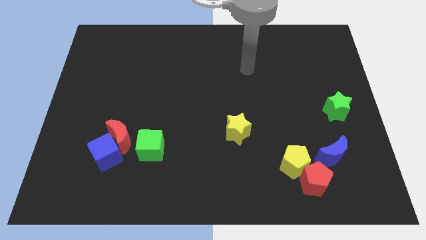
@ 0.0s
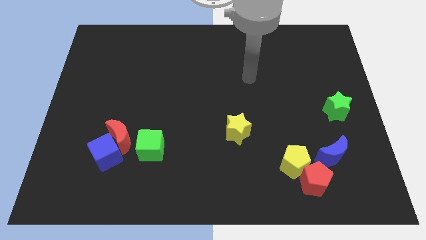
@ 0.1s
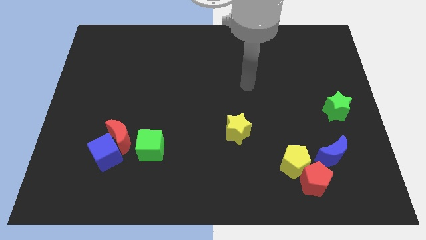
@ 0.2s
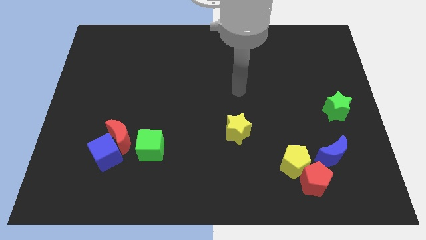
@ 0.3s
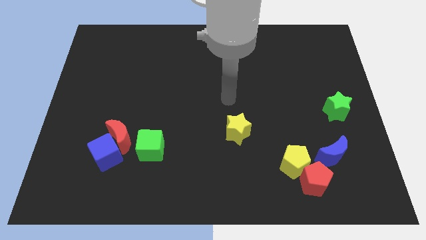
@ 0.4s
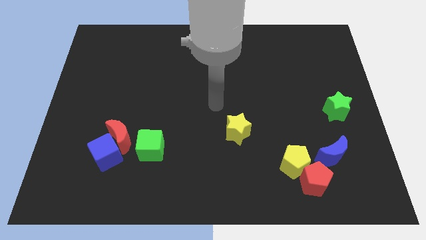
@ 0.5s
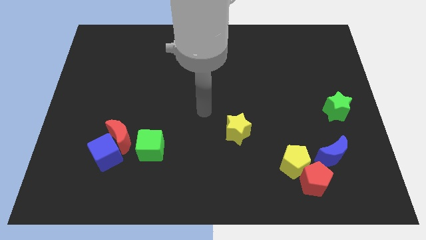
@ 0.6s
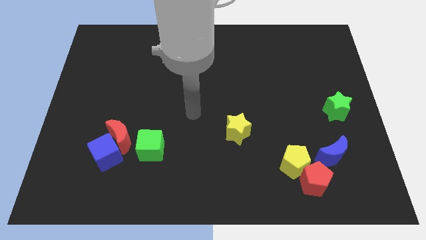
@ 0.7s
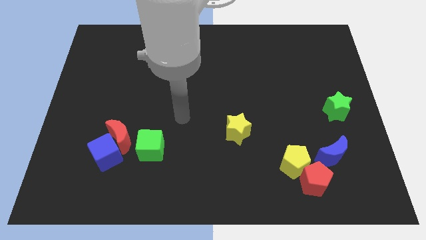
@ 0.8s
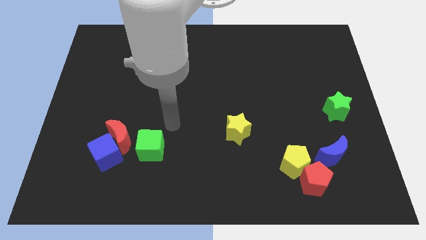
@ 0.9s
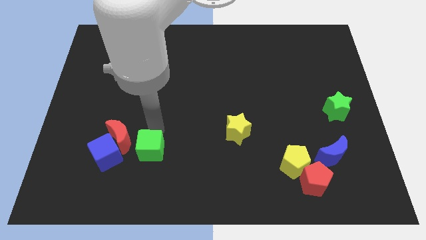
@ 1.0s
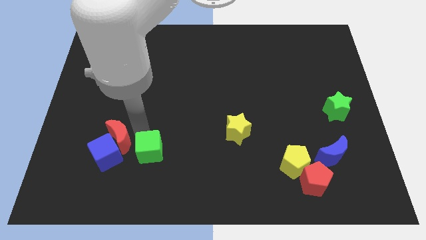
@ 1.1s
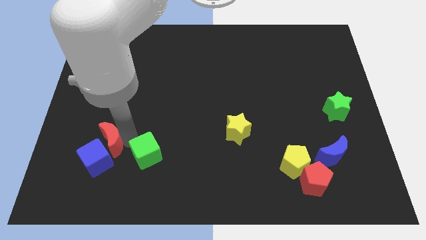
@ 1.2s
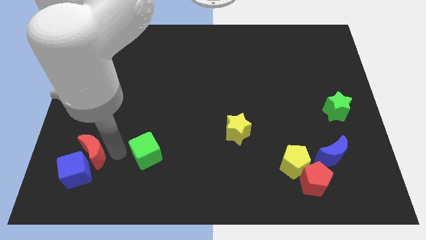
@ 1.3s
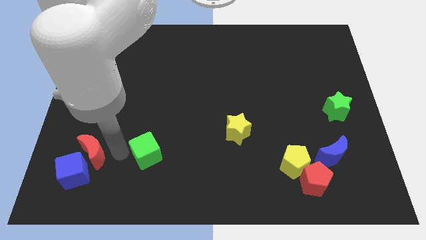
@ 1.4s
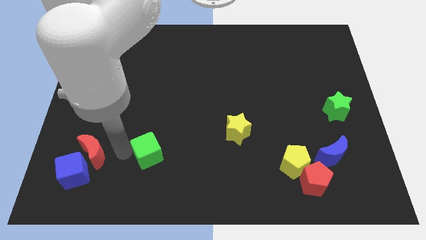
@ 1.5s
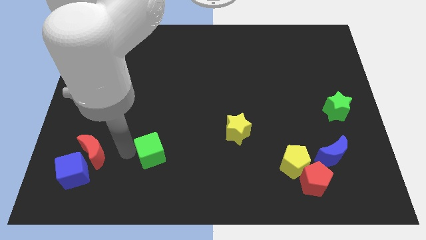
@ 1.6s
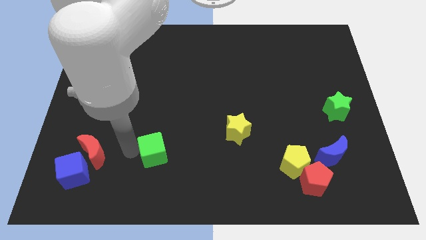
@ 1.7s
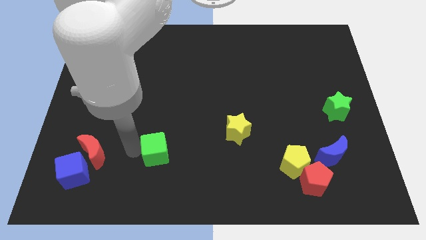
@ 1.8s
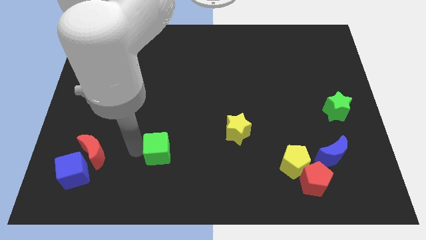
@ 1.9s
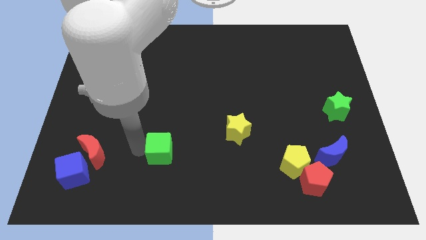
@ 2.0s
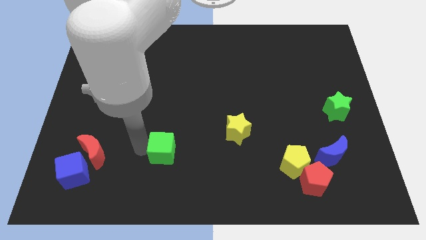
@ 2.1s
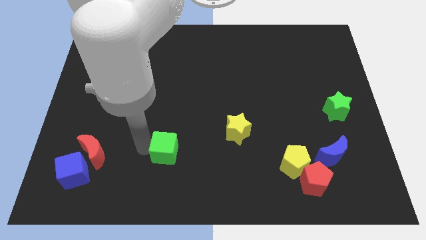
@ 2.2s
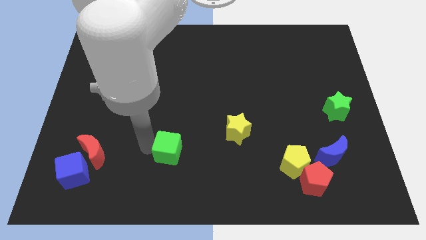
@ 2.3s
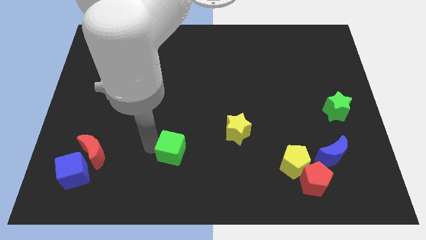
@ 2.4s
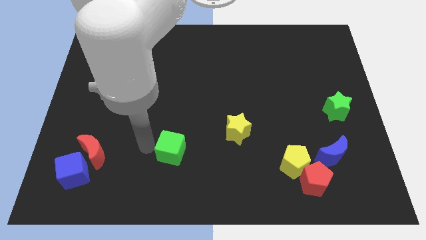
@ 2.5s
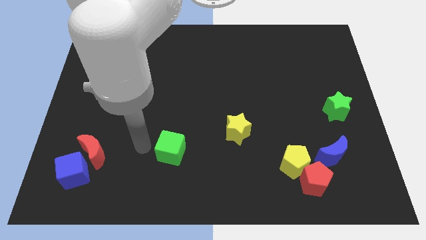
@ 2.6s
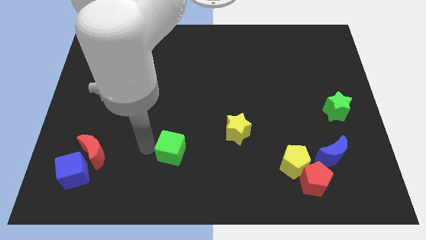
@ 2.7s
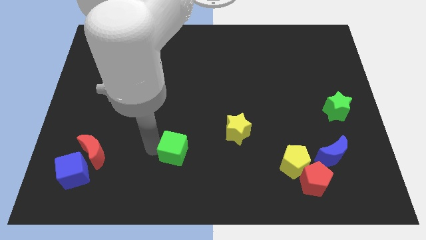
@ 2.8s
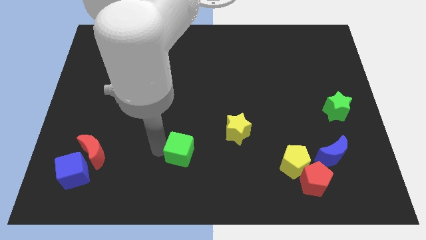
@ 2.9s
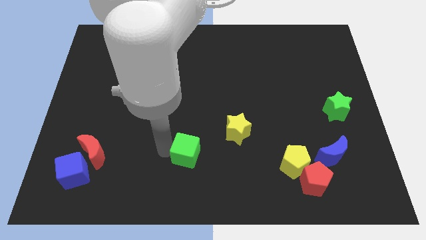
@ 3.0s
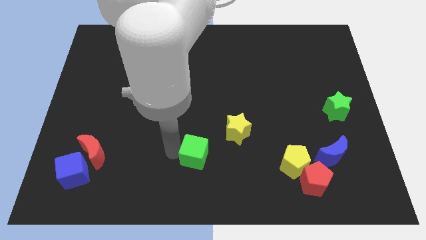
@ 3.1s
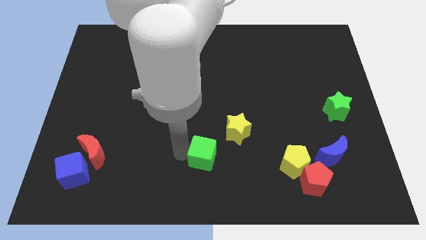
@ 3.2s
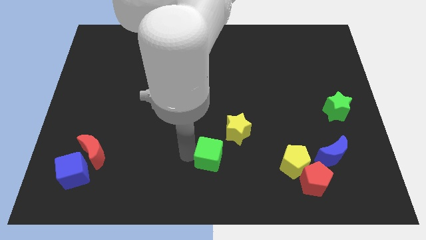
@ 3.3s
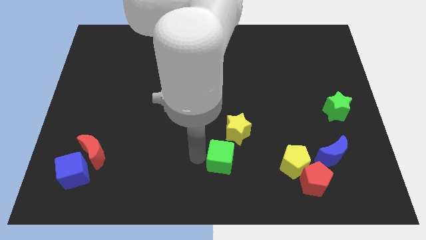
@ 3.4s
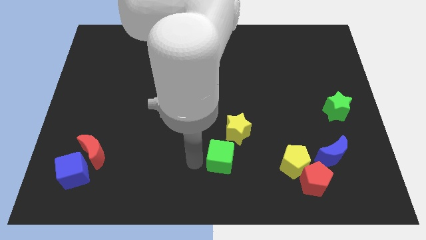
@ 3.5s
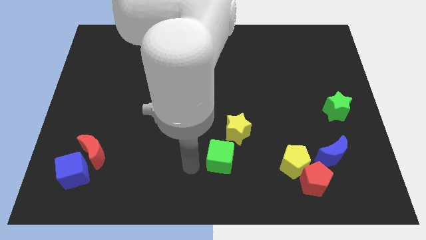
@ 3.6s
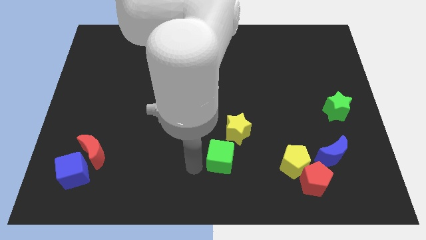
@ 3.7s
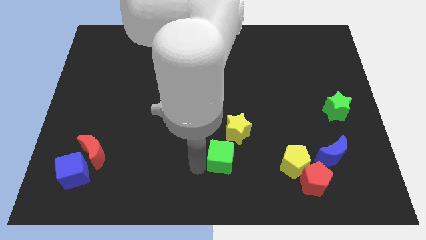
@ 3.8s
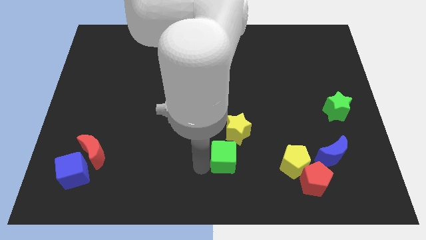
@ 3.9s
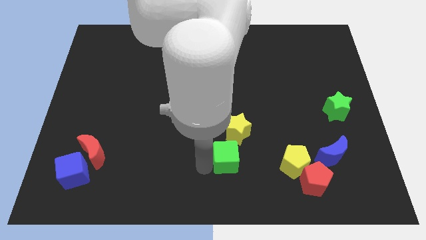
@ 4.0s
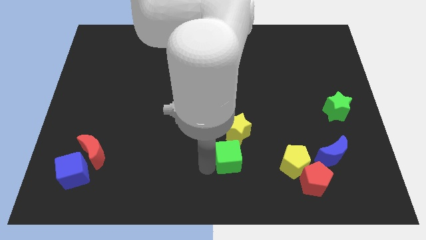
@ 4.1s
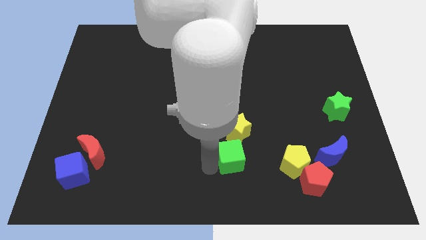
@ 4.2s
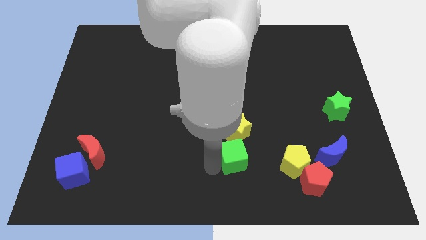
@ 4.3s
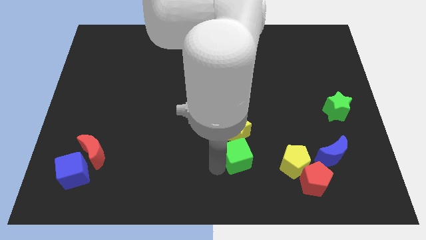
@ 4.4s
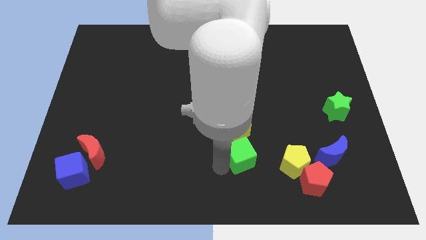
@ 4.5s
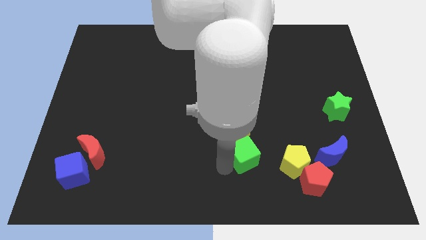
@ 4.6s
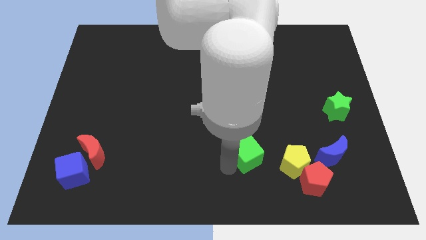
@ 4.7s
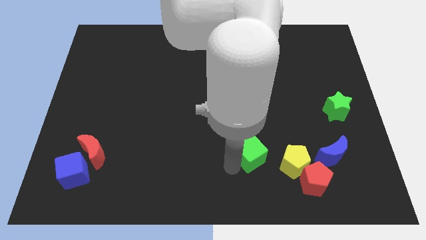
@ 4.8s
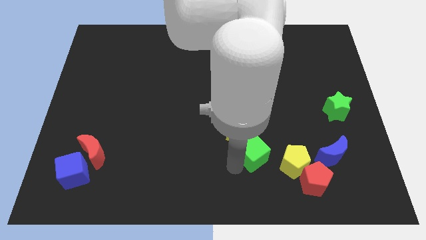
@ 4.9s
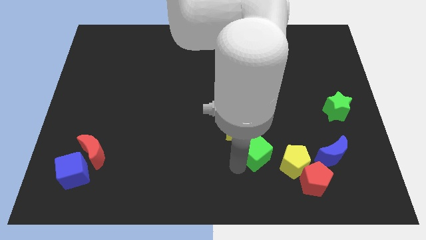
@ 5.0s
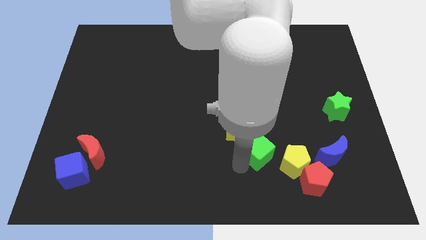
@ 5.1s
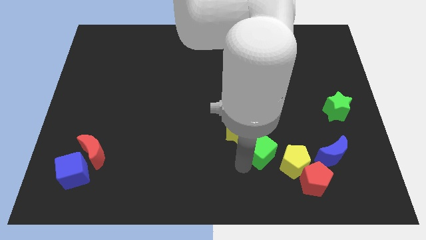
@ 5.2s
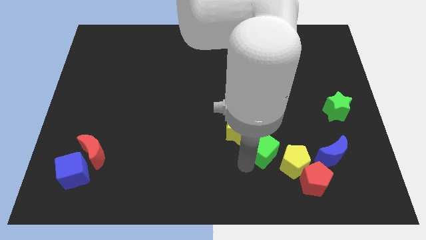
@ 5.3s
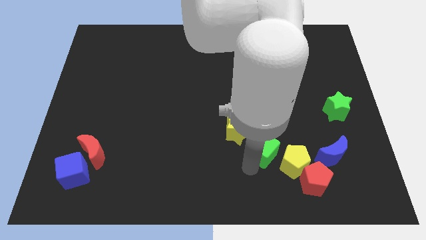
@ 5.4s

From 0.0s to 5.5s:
put the green cube just right of the yellow star

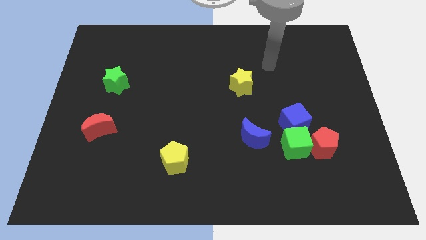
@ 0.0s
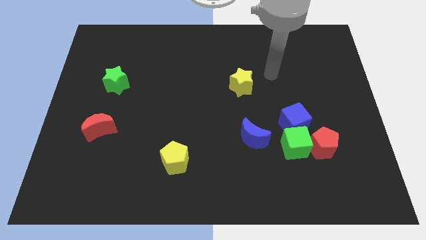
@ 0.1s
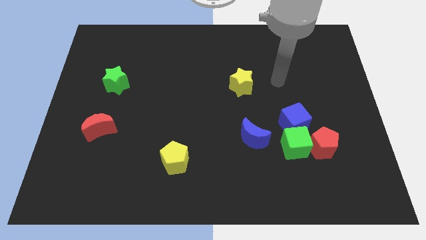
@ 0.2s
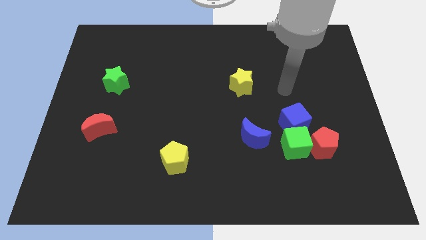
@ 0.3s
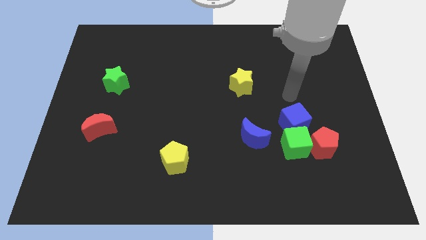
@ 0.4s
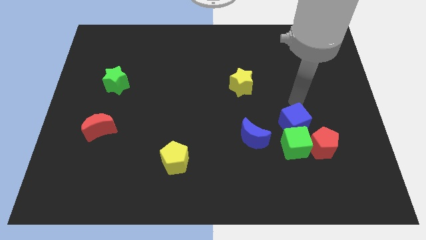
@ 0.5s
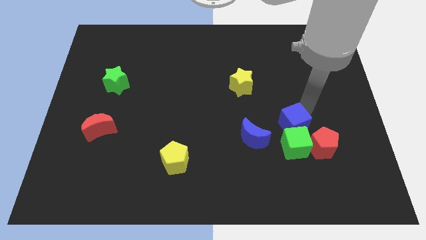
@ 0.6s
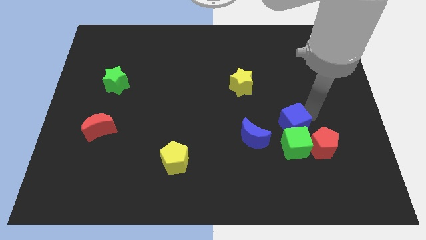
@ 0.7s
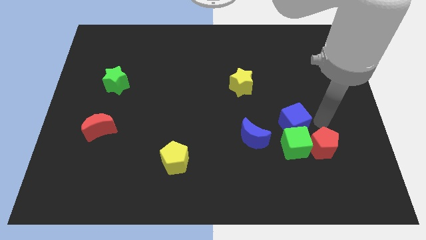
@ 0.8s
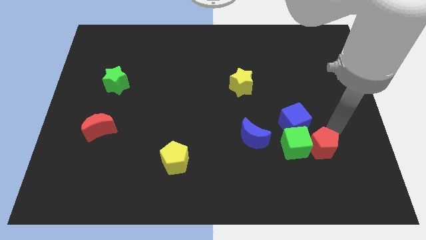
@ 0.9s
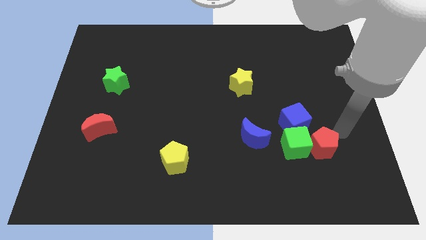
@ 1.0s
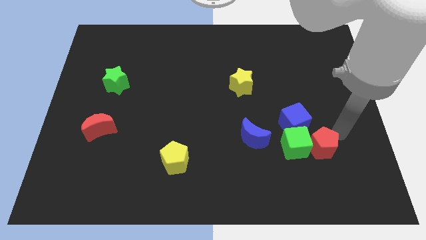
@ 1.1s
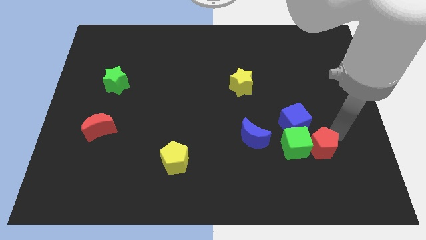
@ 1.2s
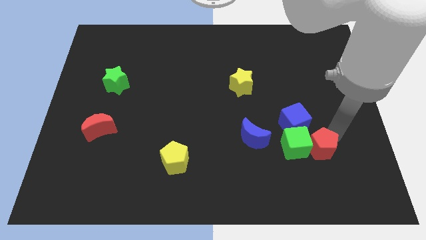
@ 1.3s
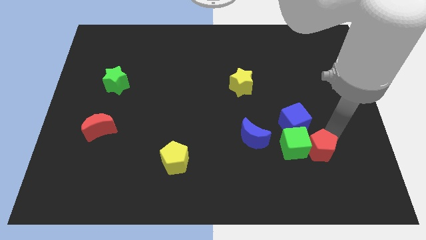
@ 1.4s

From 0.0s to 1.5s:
move the red pentagon to the bottom side of the blue cube
